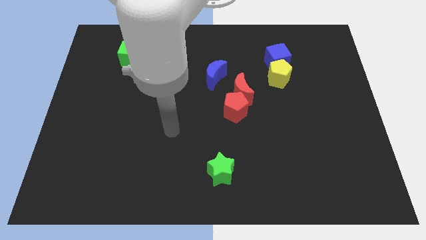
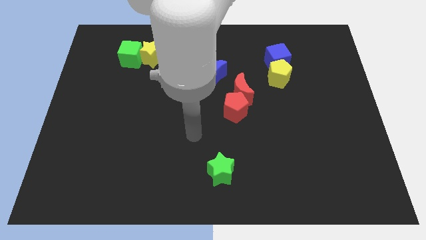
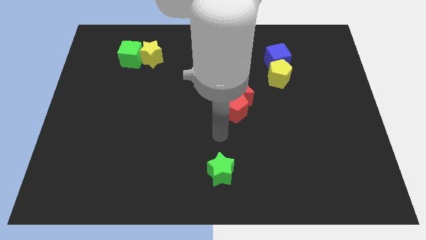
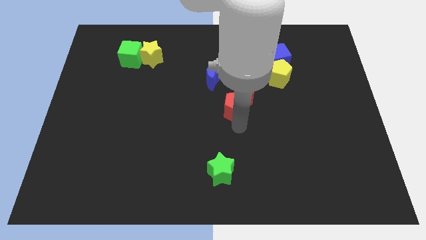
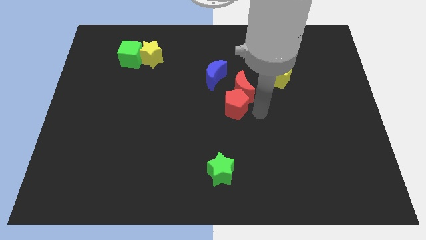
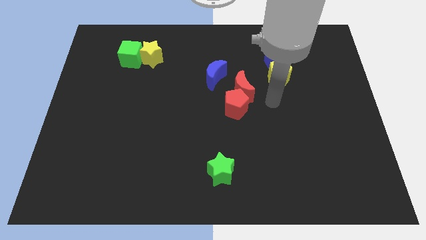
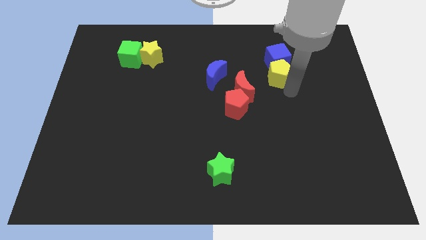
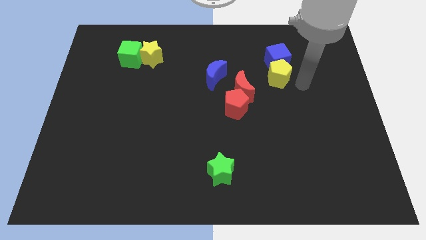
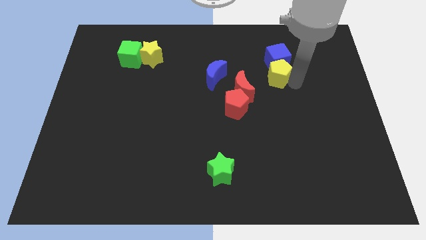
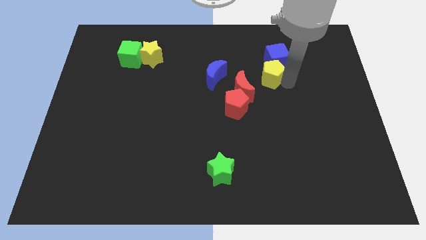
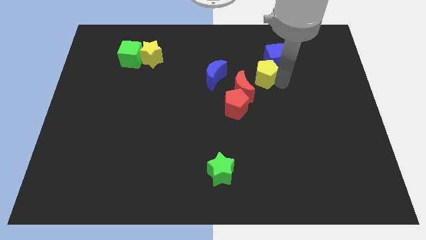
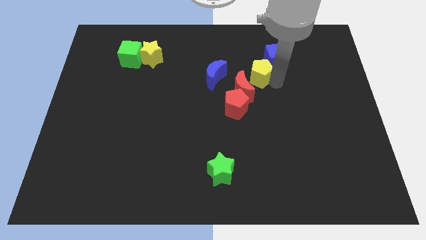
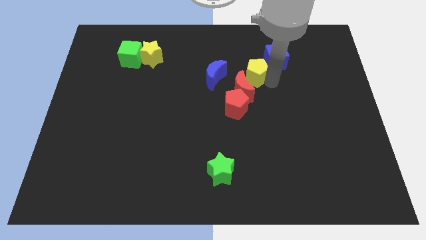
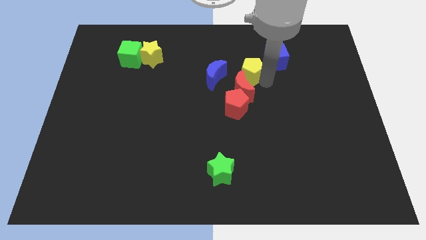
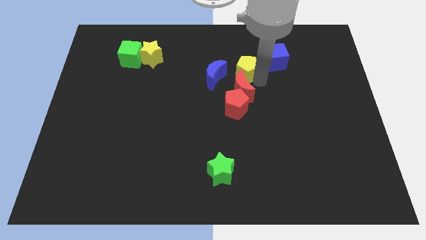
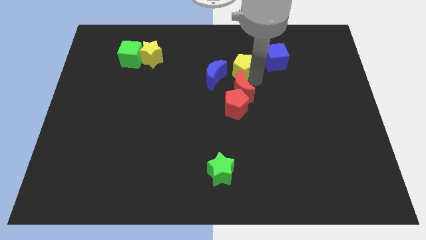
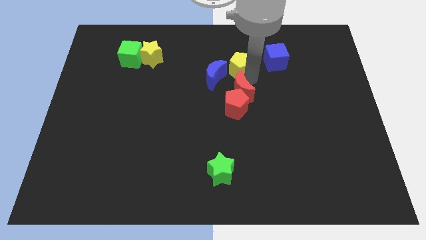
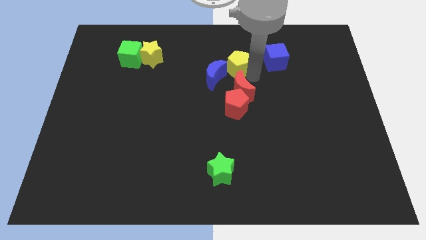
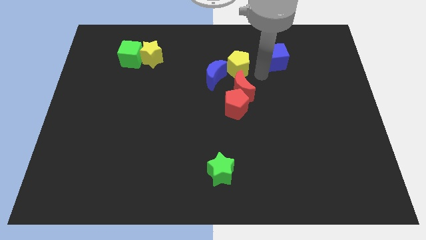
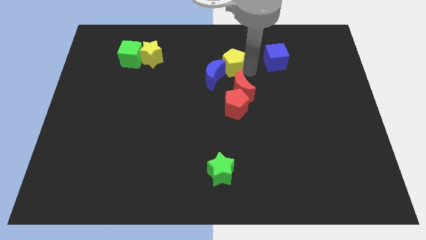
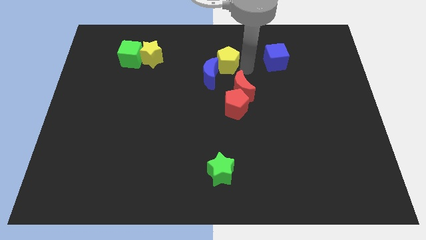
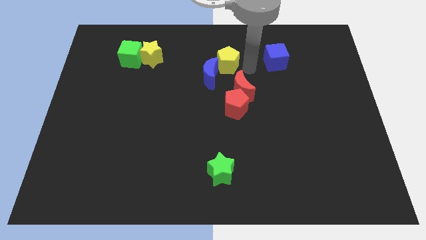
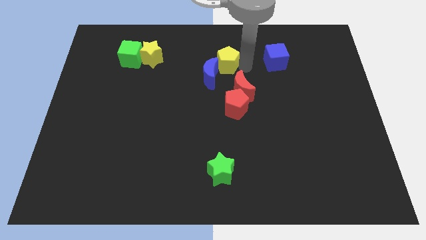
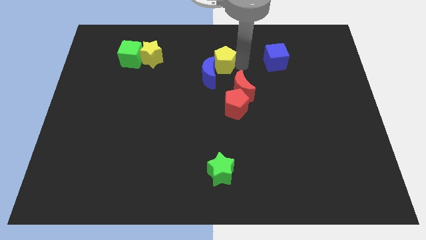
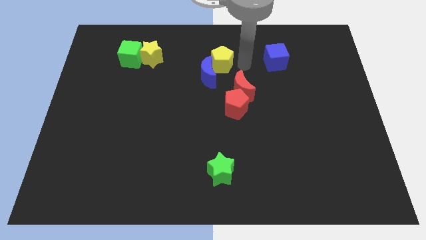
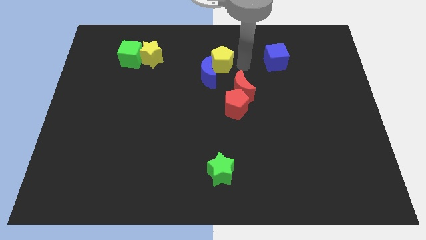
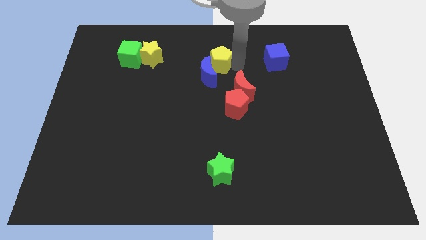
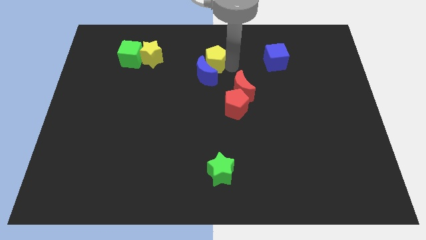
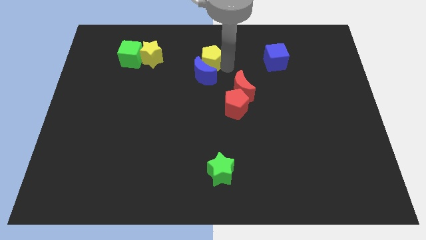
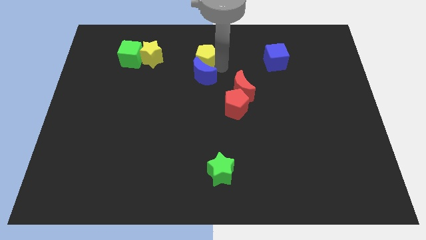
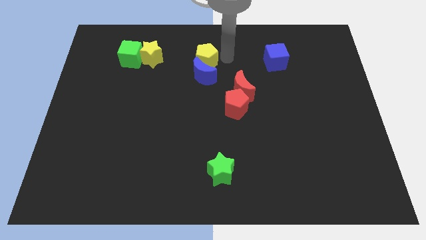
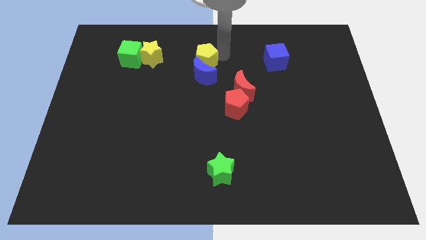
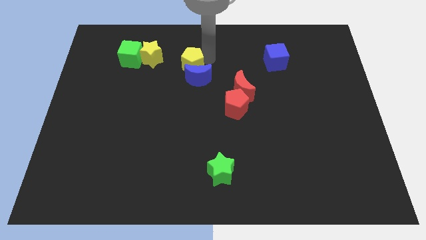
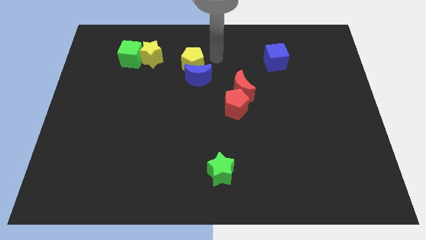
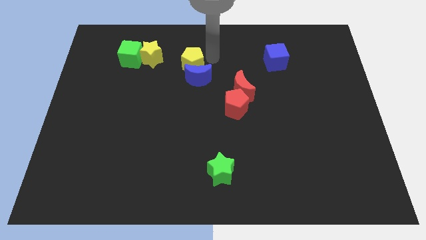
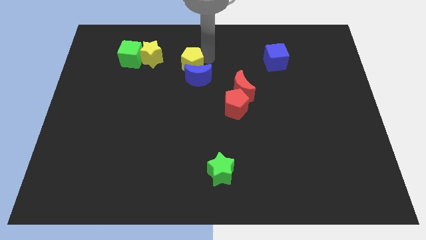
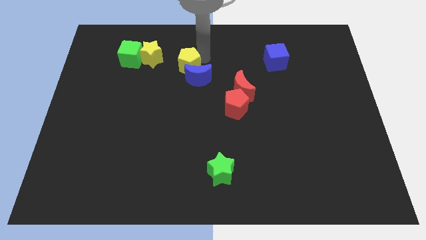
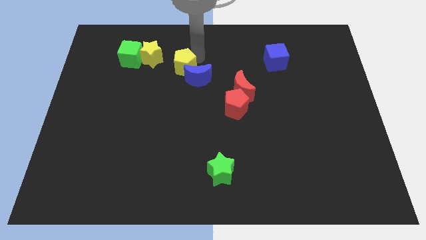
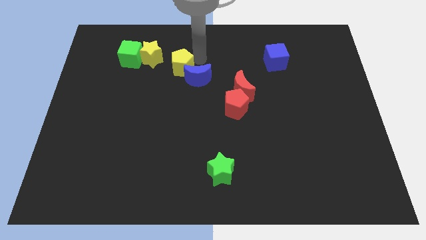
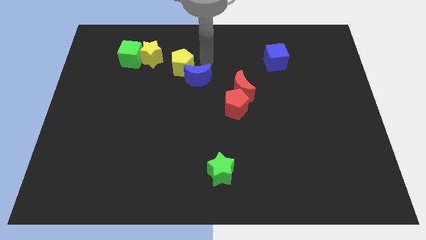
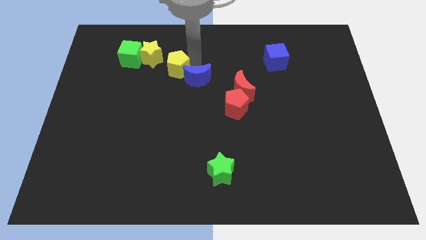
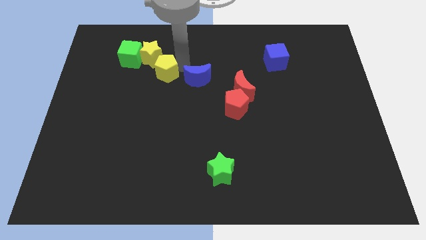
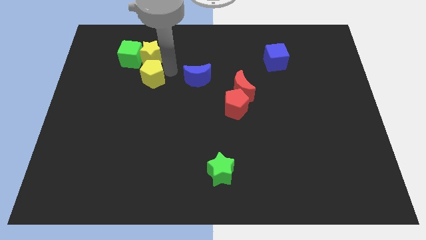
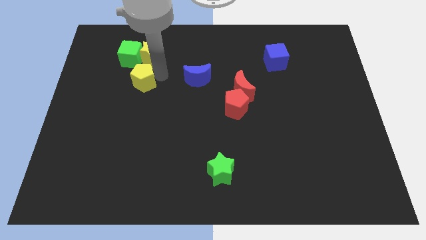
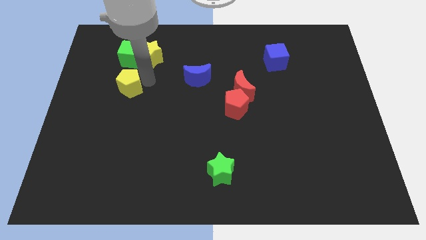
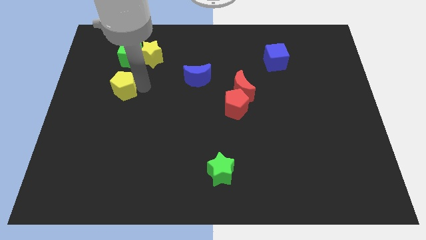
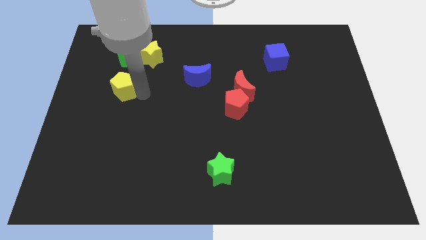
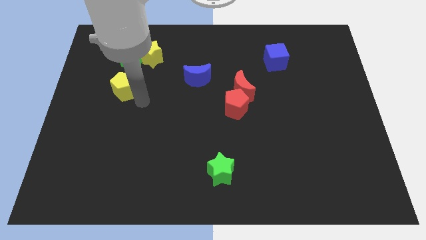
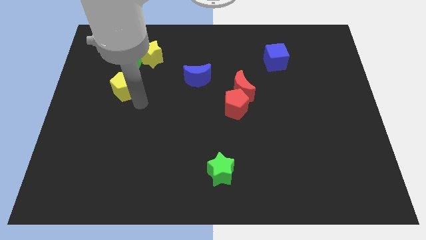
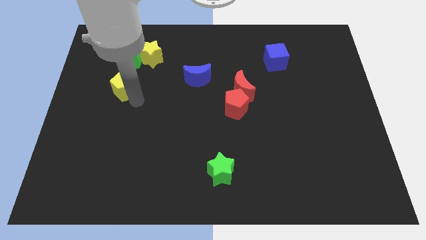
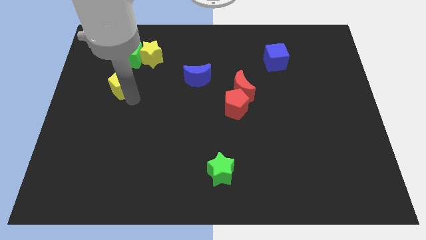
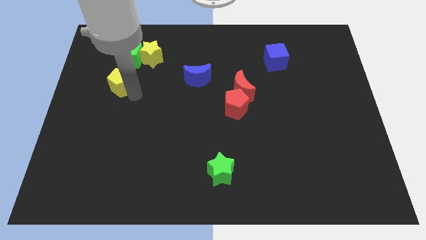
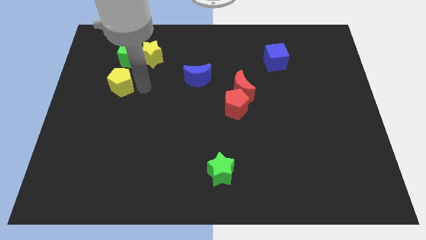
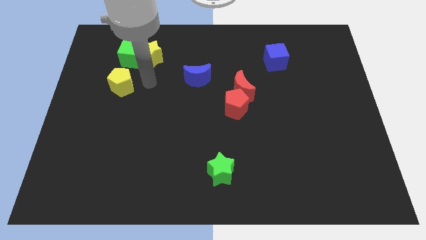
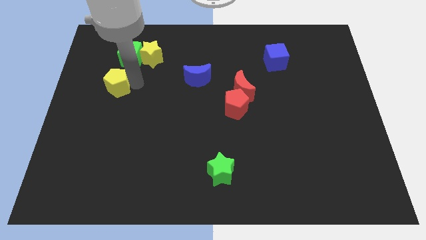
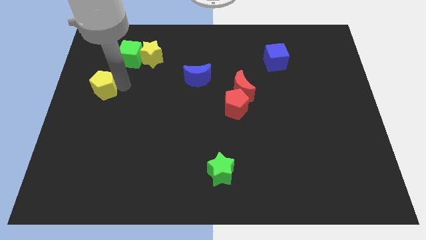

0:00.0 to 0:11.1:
move the yellow pentagon to the left side

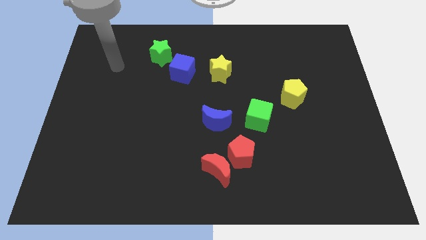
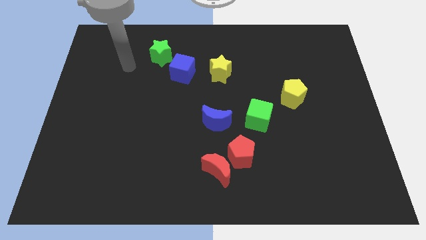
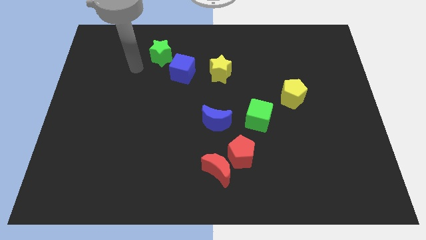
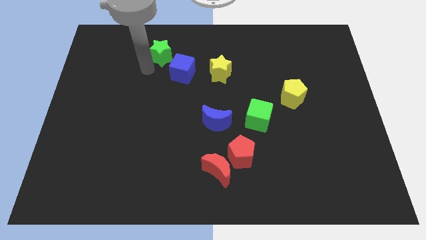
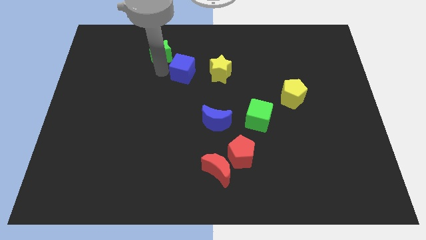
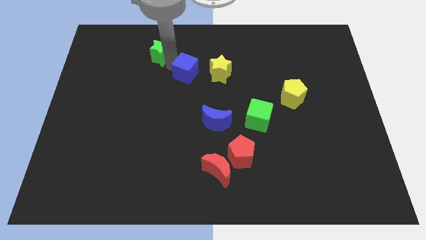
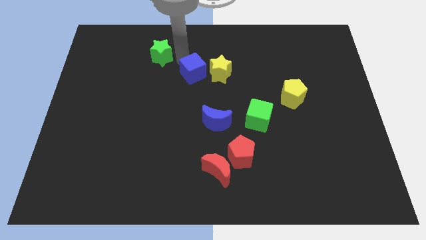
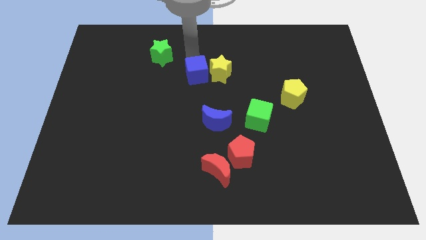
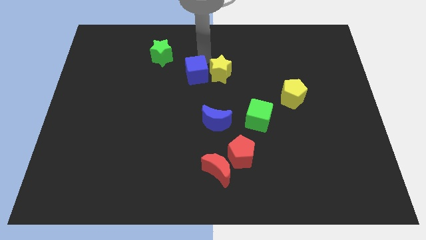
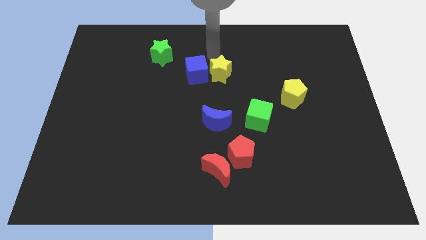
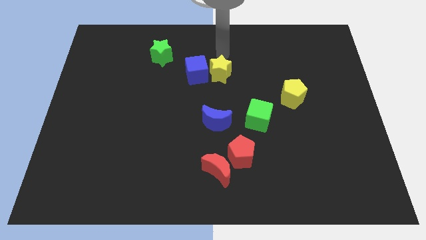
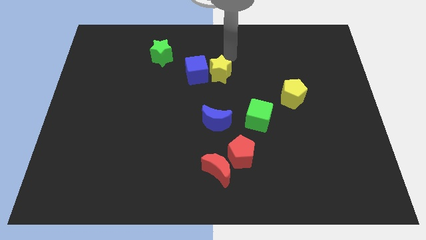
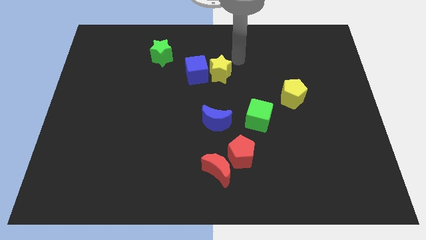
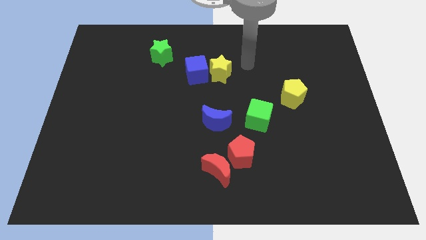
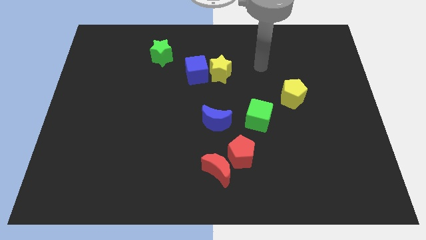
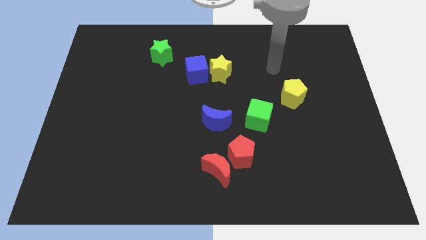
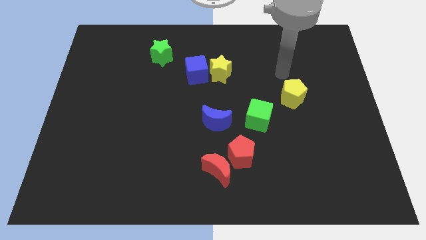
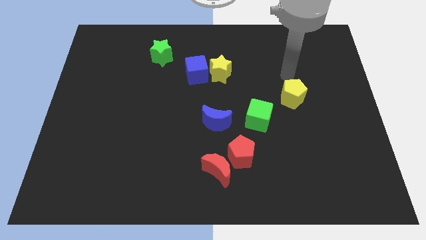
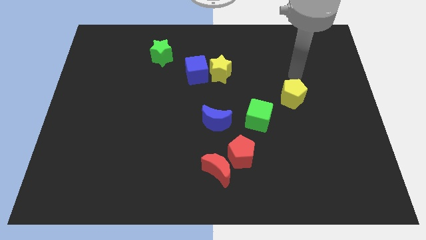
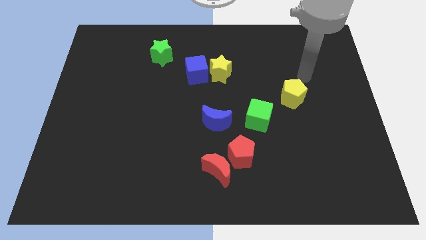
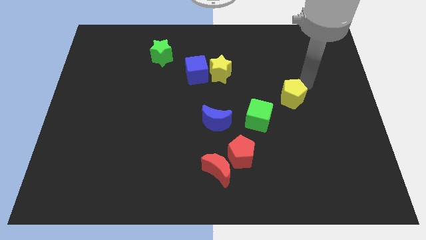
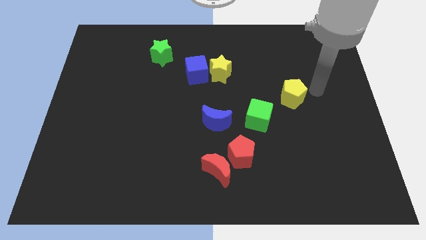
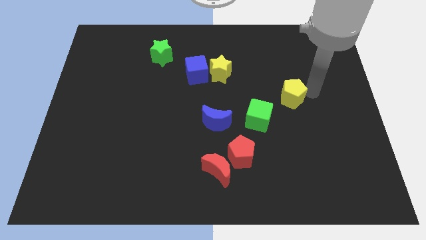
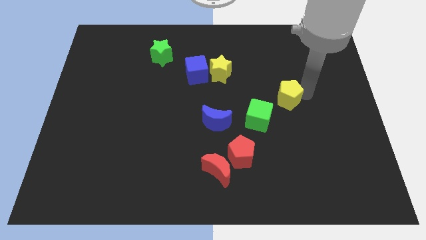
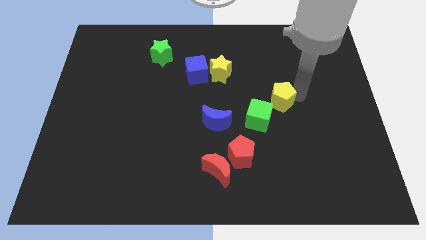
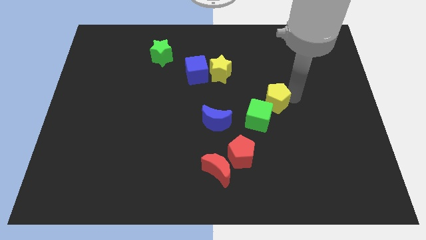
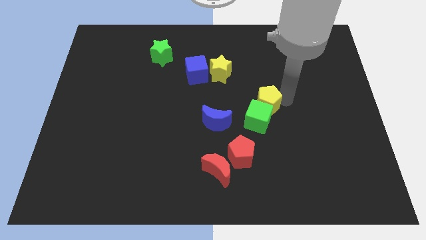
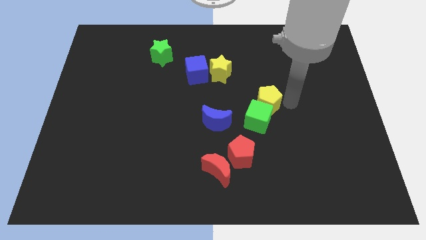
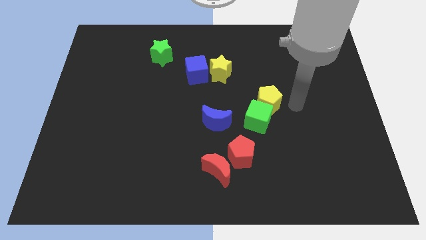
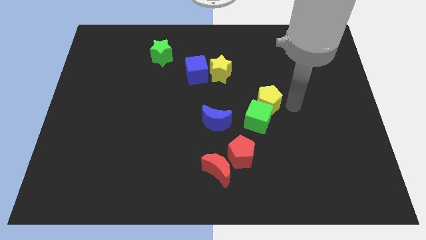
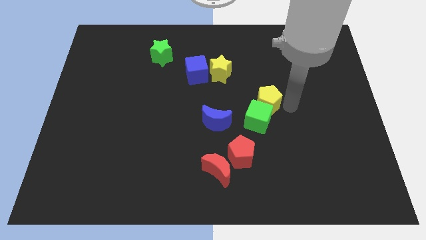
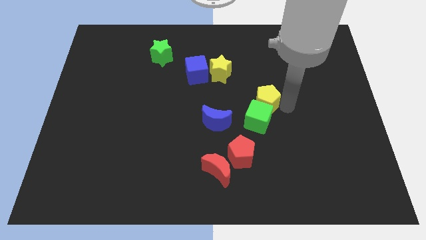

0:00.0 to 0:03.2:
slide the yellow pentagon to the middle
